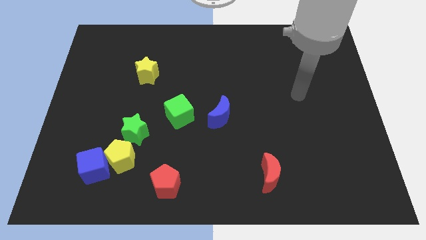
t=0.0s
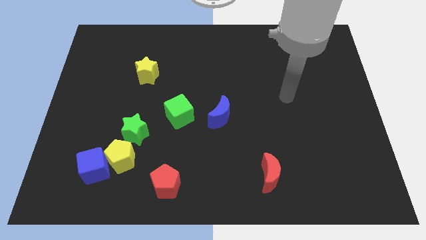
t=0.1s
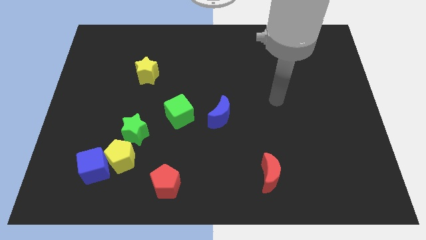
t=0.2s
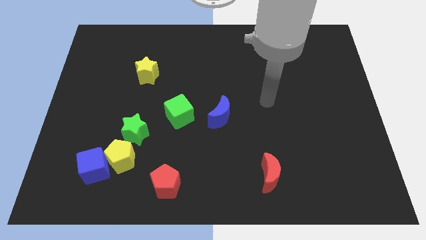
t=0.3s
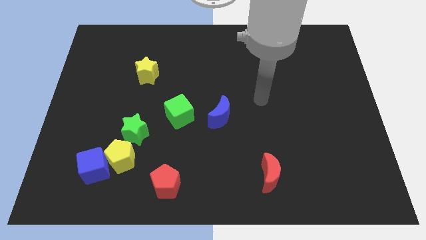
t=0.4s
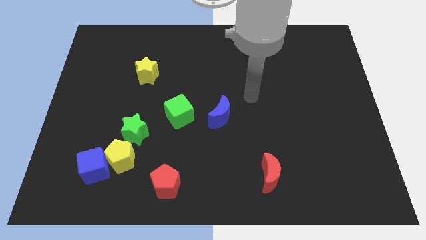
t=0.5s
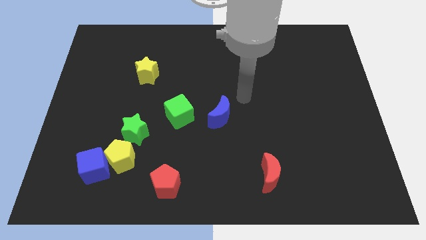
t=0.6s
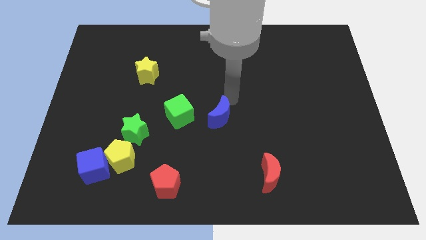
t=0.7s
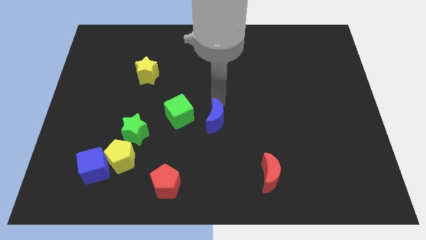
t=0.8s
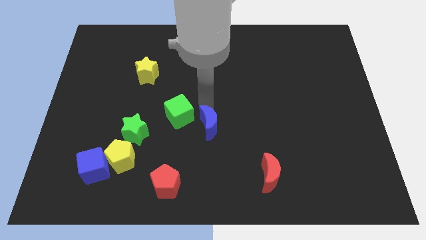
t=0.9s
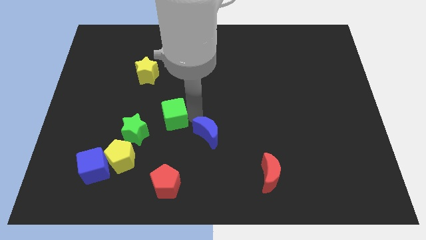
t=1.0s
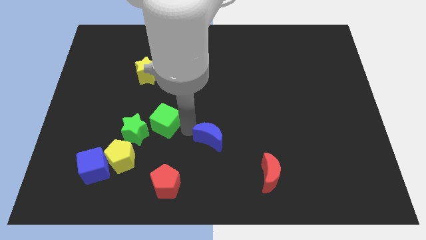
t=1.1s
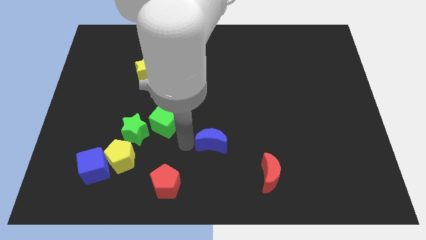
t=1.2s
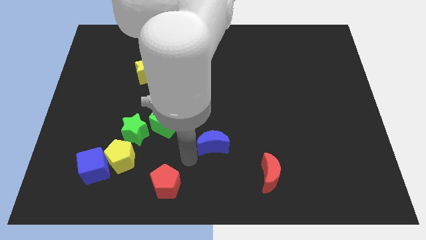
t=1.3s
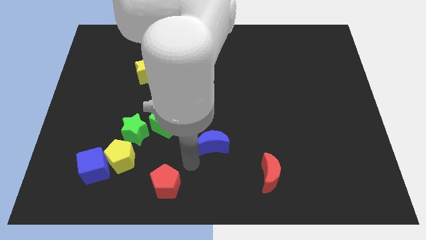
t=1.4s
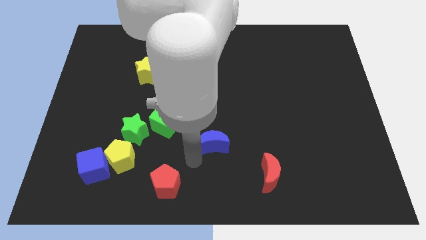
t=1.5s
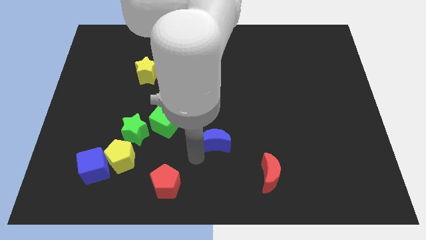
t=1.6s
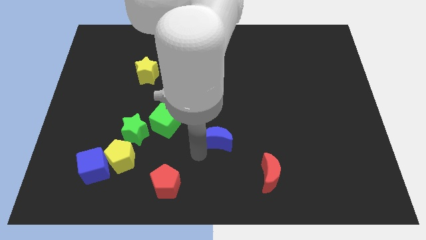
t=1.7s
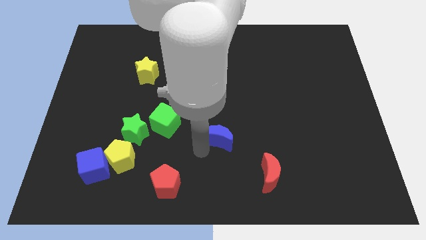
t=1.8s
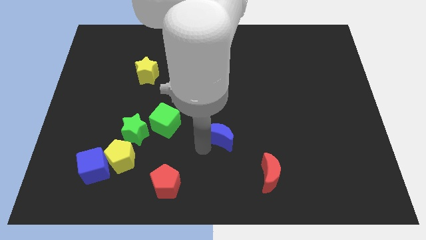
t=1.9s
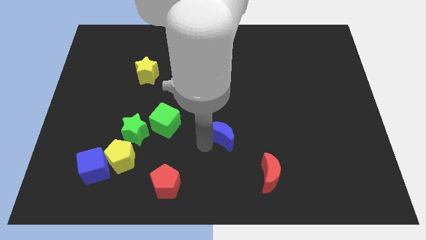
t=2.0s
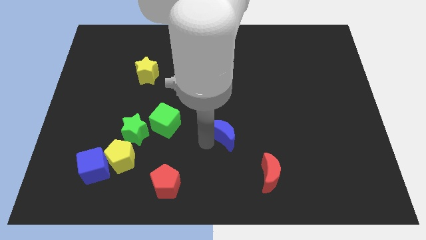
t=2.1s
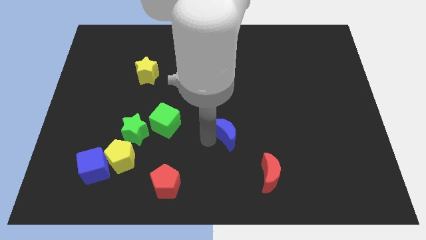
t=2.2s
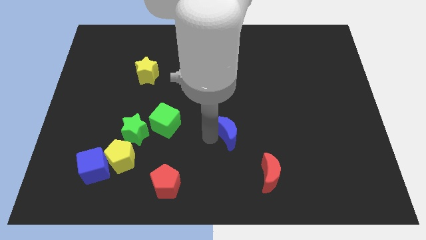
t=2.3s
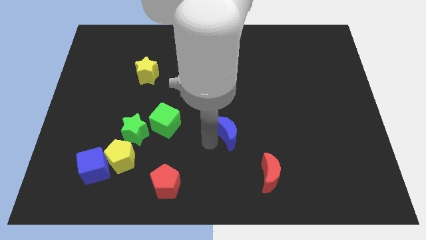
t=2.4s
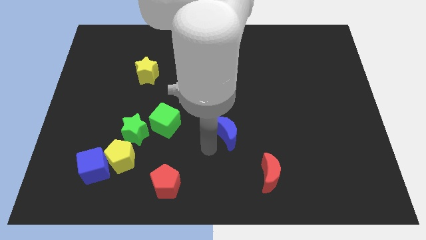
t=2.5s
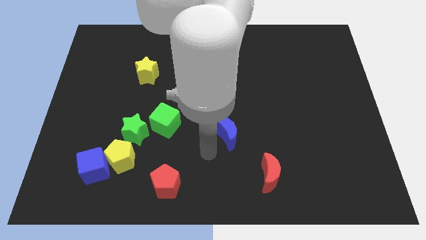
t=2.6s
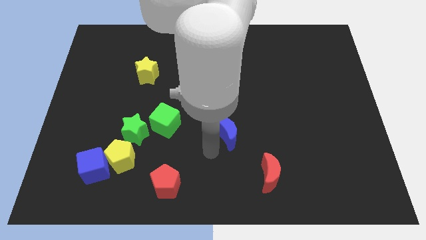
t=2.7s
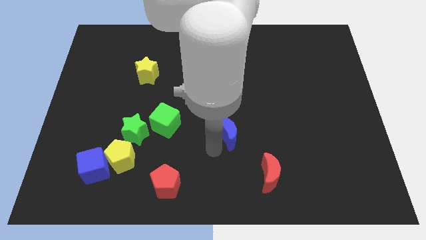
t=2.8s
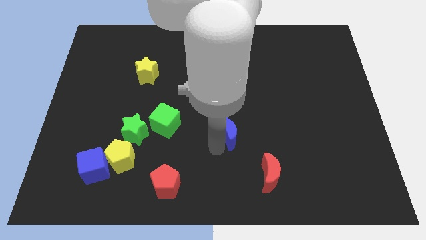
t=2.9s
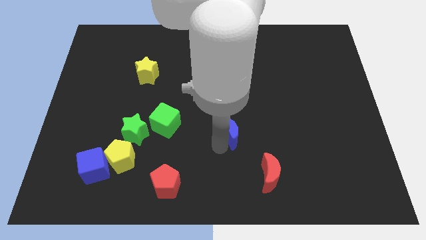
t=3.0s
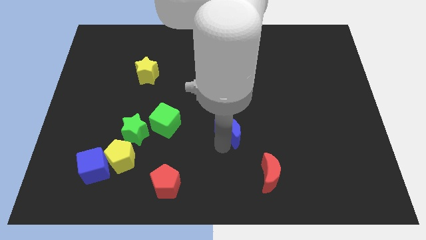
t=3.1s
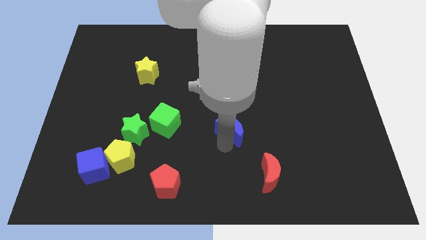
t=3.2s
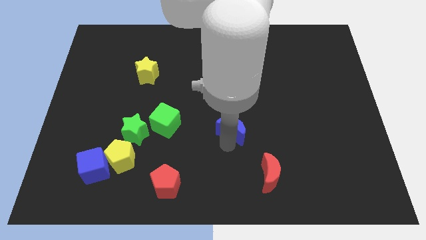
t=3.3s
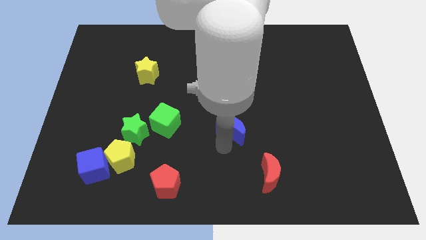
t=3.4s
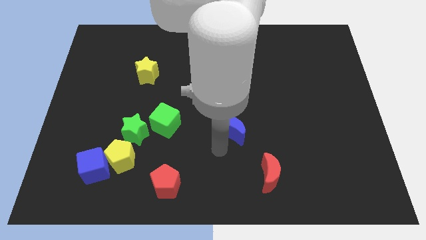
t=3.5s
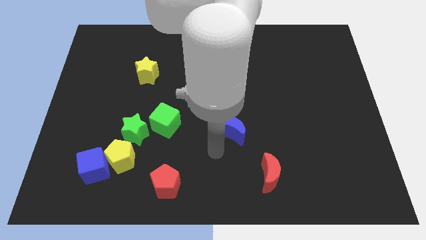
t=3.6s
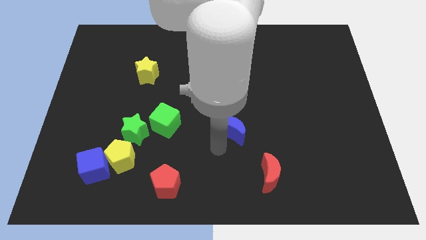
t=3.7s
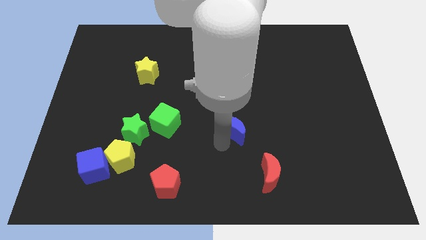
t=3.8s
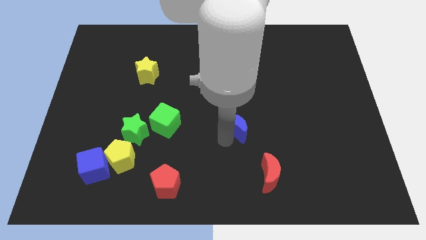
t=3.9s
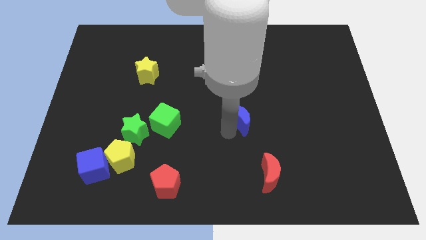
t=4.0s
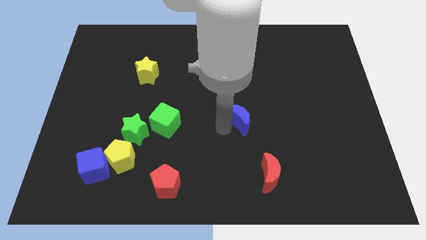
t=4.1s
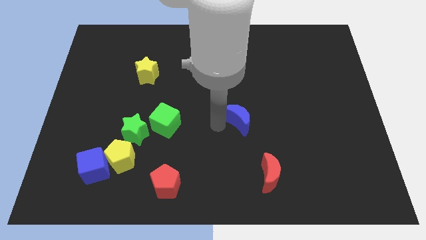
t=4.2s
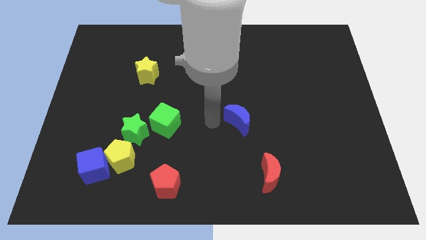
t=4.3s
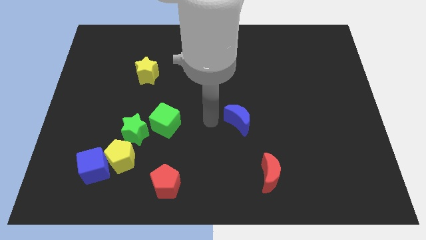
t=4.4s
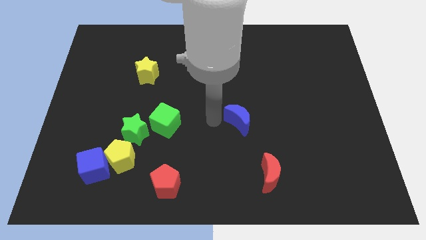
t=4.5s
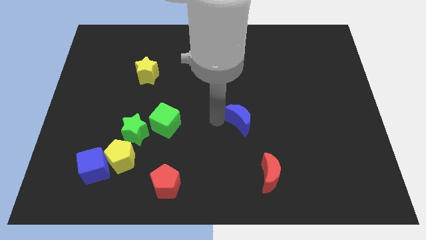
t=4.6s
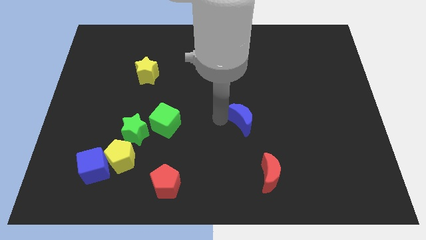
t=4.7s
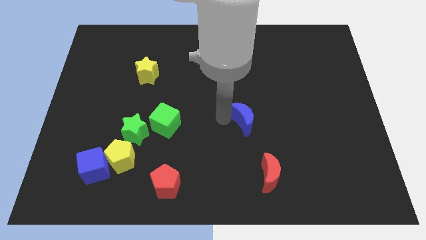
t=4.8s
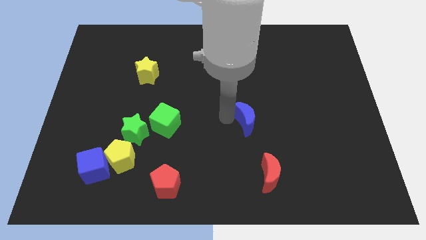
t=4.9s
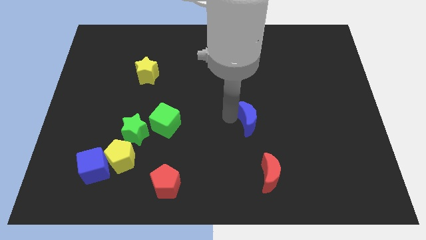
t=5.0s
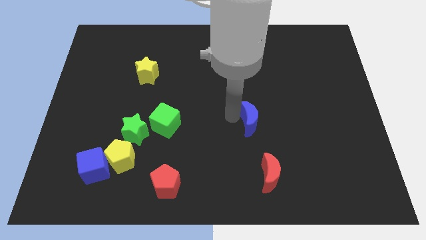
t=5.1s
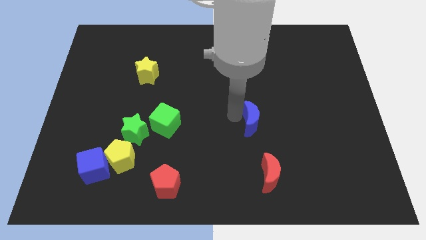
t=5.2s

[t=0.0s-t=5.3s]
move the blue moon a bit to the right

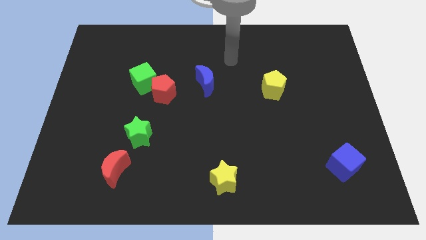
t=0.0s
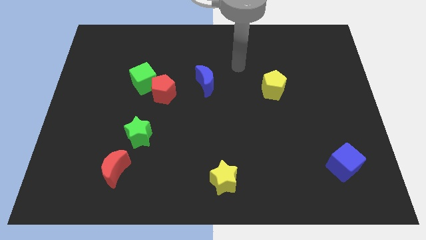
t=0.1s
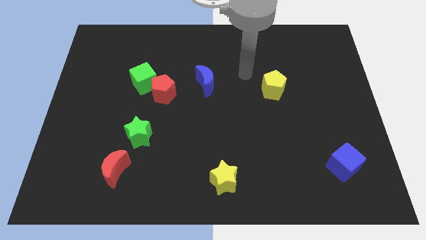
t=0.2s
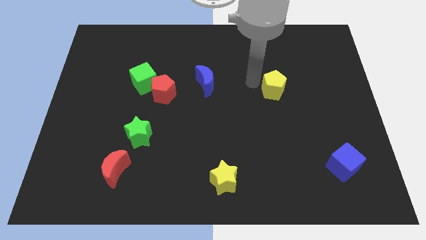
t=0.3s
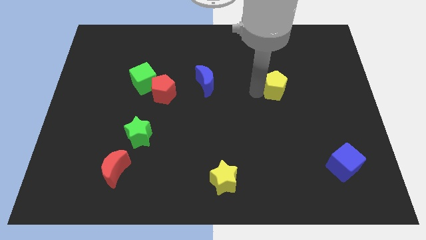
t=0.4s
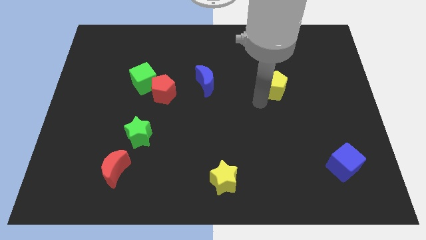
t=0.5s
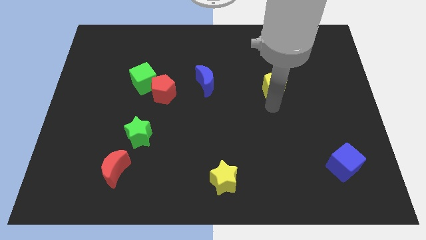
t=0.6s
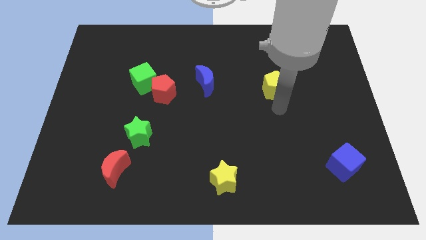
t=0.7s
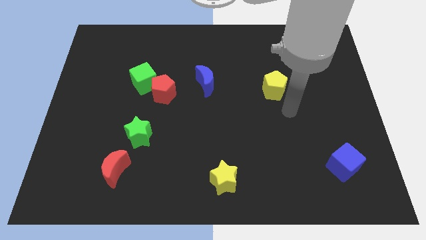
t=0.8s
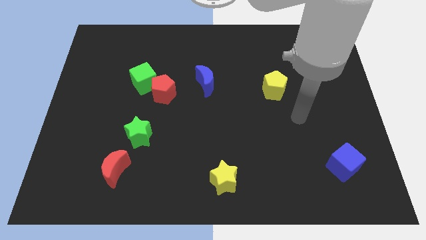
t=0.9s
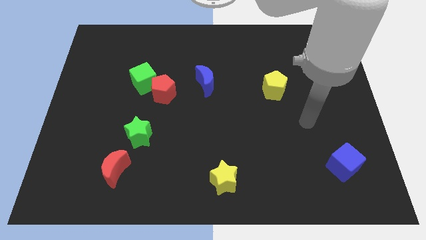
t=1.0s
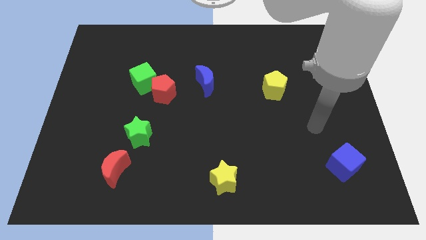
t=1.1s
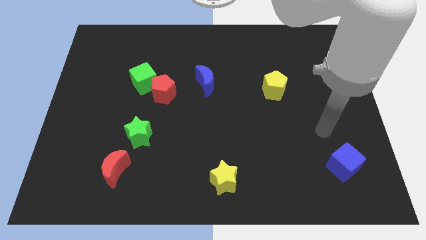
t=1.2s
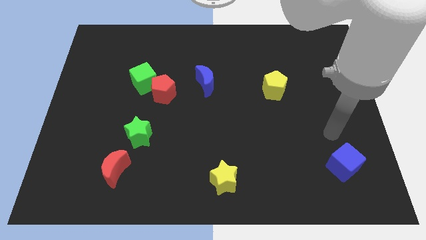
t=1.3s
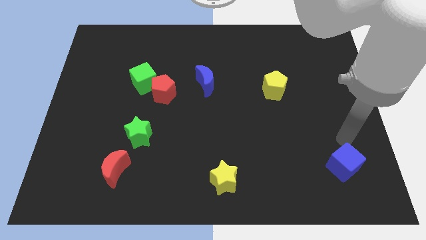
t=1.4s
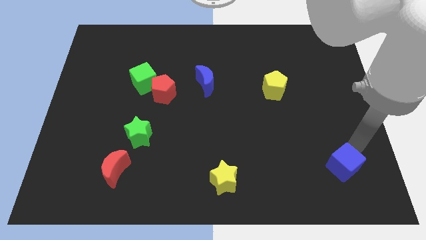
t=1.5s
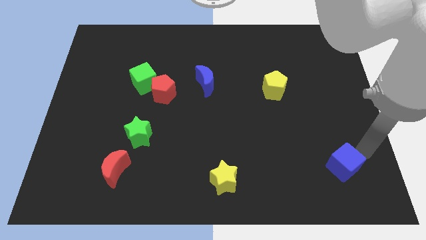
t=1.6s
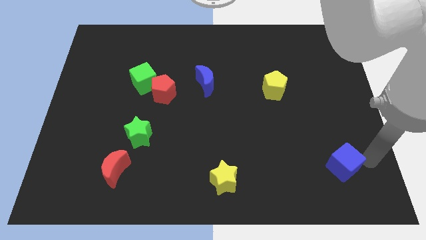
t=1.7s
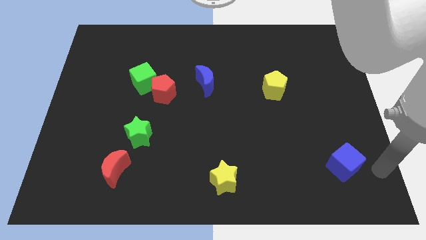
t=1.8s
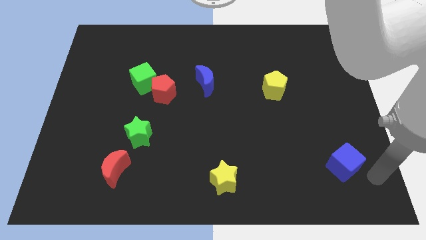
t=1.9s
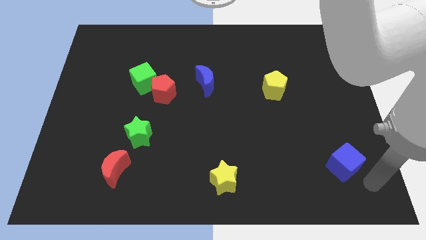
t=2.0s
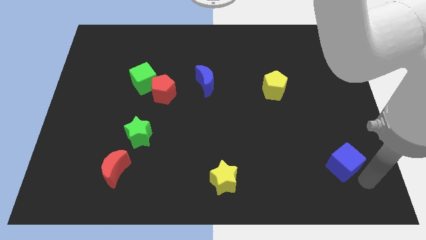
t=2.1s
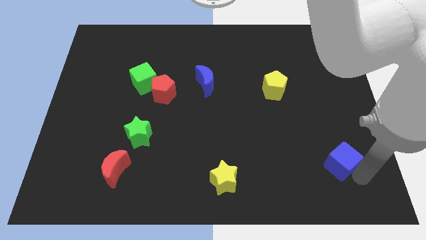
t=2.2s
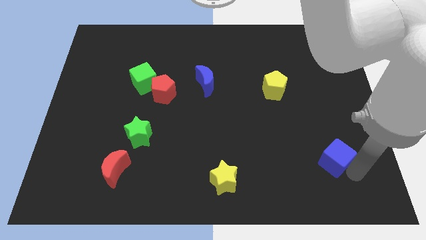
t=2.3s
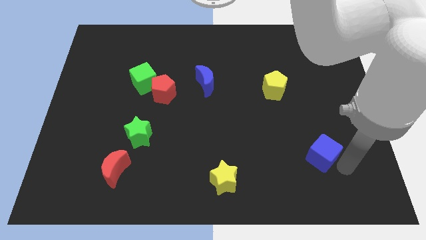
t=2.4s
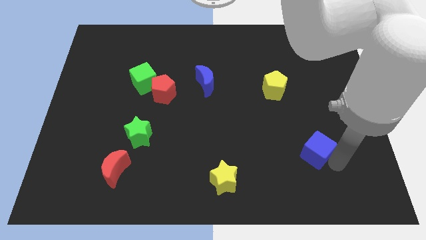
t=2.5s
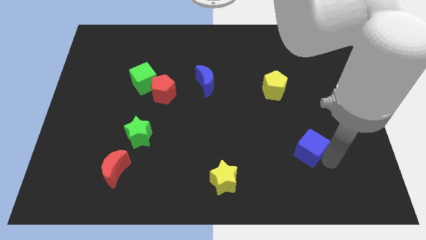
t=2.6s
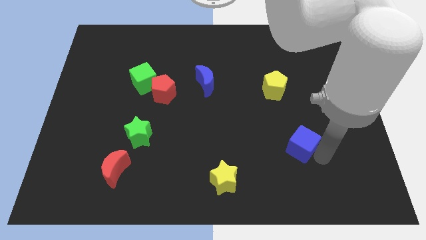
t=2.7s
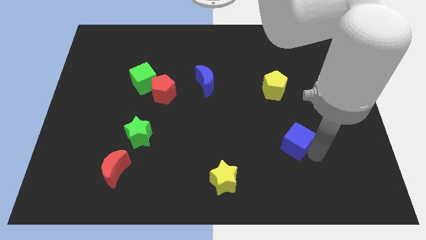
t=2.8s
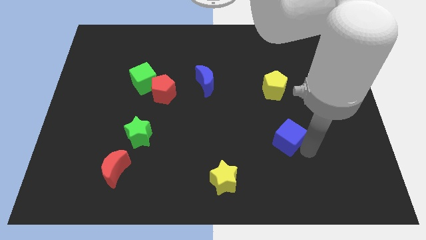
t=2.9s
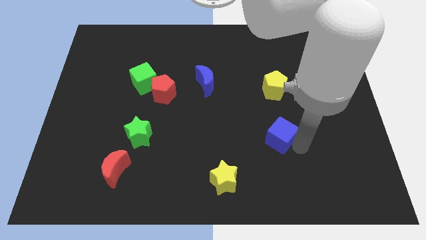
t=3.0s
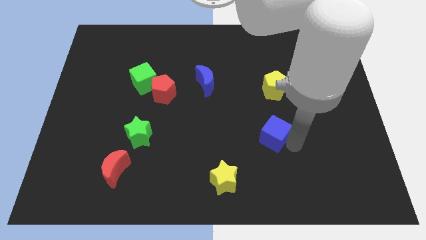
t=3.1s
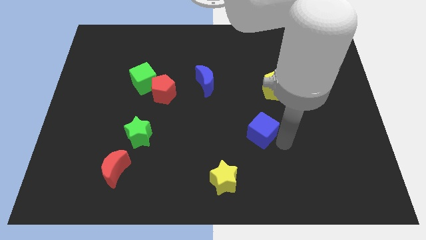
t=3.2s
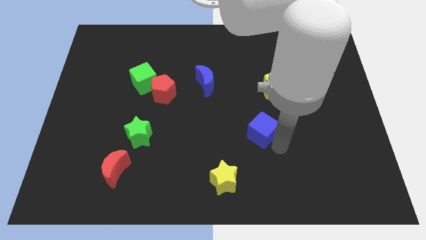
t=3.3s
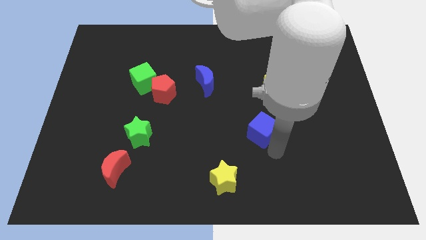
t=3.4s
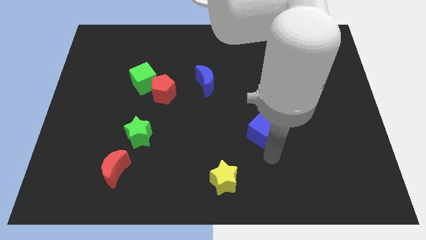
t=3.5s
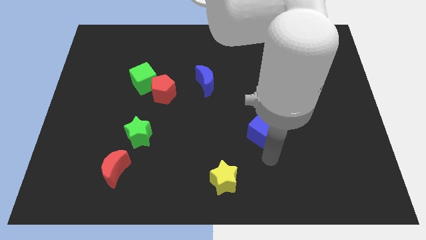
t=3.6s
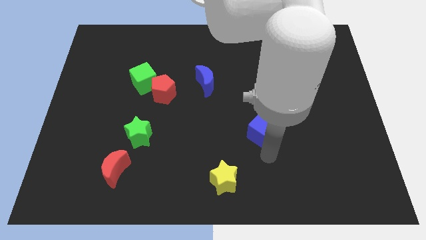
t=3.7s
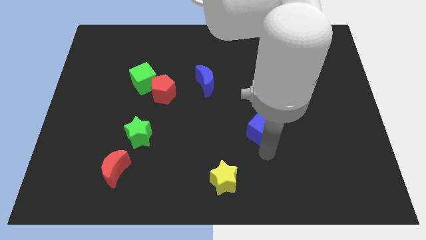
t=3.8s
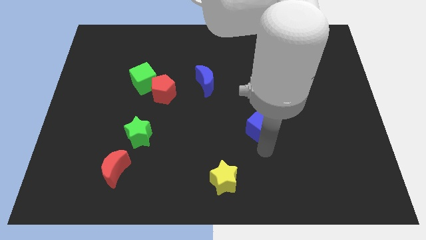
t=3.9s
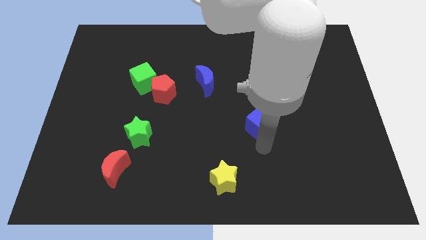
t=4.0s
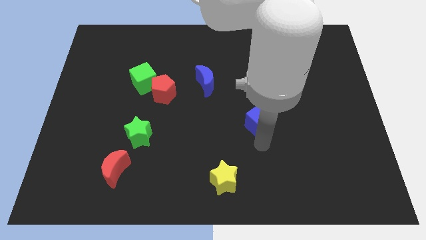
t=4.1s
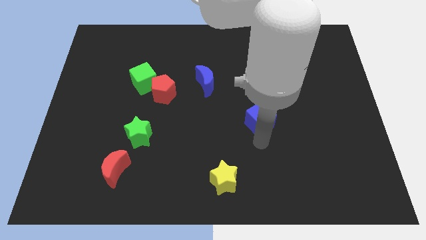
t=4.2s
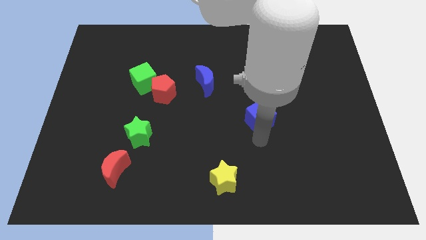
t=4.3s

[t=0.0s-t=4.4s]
push the blue cube diagonally up and left
